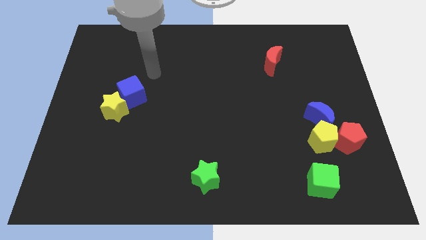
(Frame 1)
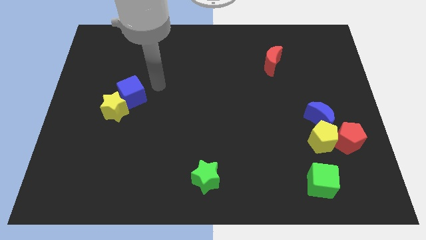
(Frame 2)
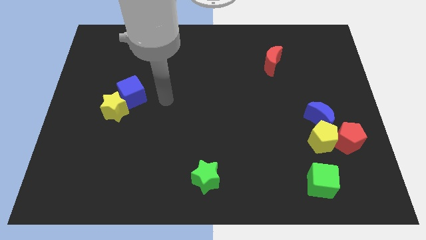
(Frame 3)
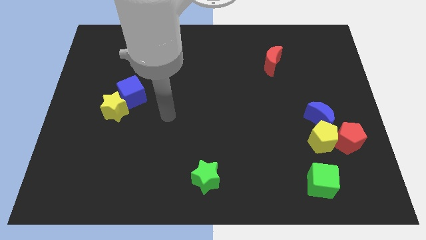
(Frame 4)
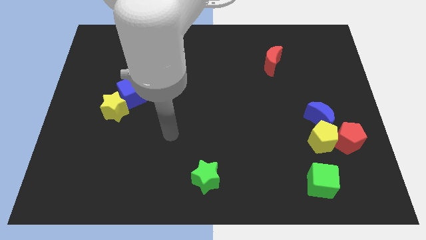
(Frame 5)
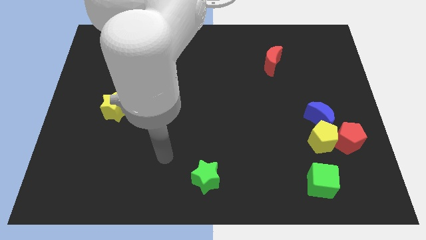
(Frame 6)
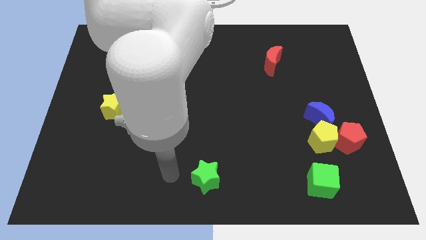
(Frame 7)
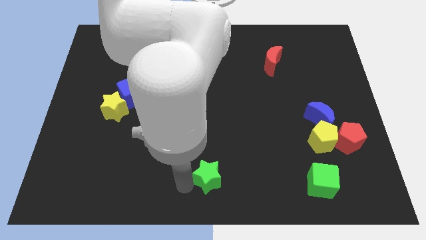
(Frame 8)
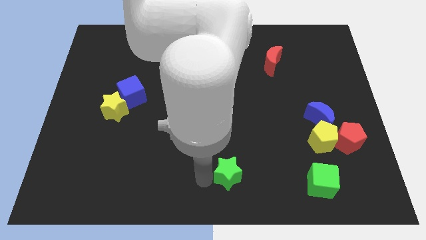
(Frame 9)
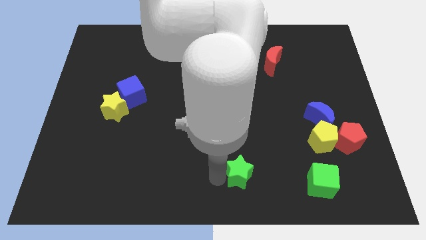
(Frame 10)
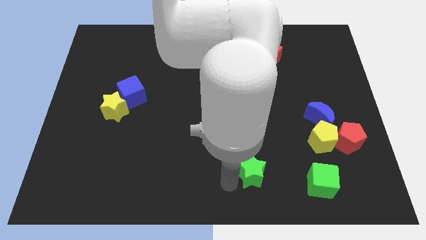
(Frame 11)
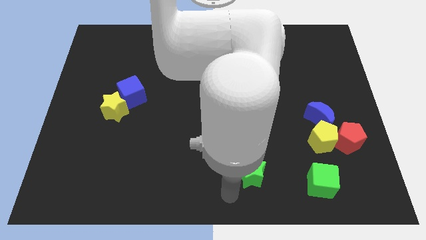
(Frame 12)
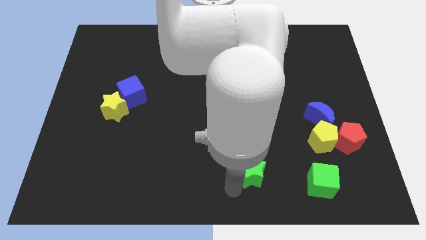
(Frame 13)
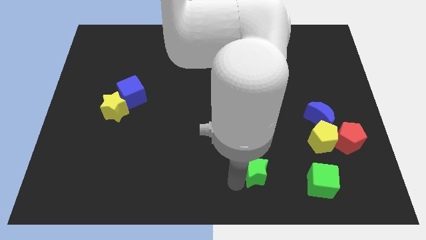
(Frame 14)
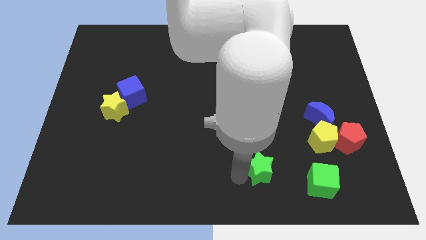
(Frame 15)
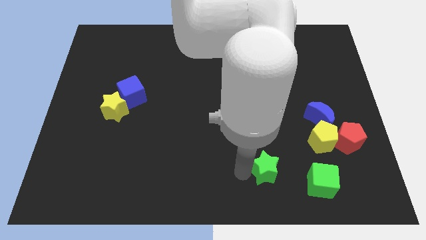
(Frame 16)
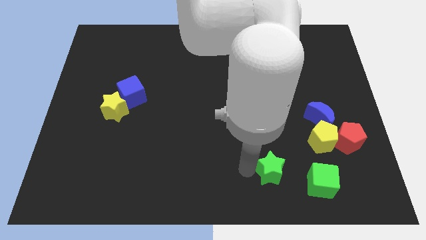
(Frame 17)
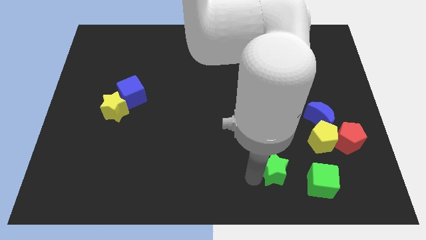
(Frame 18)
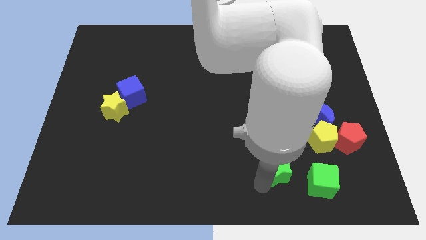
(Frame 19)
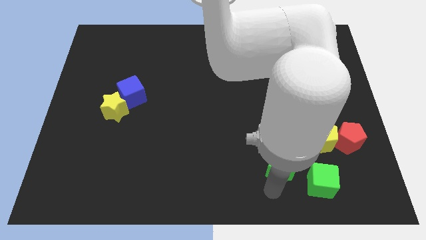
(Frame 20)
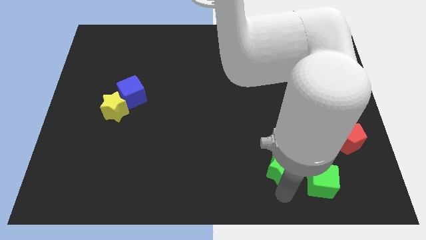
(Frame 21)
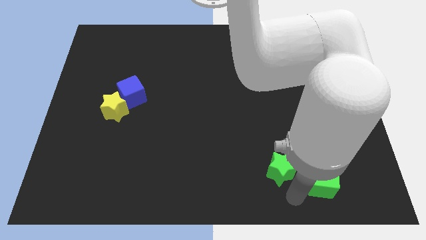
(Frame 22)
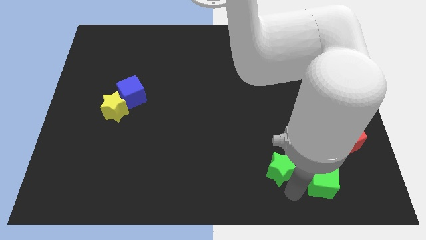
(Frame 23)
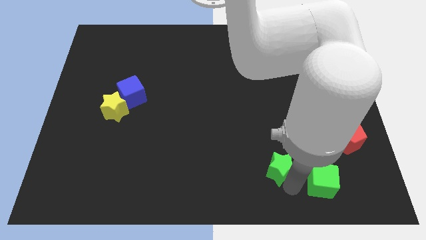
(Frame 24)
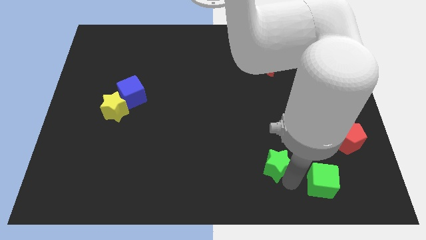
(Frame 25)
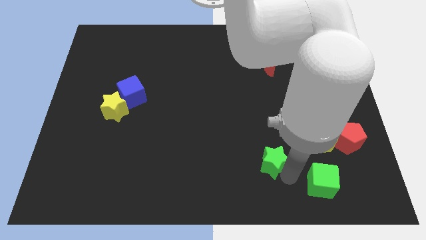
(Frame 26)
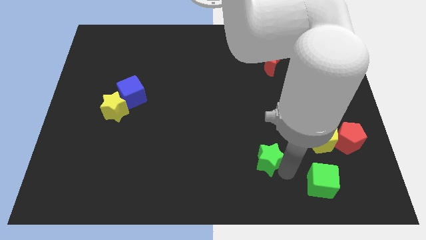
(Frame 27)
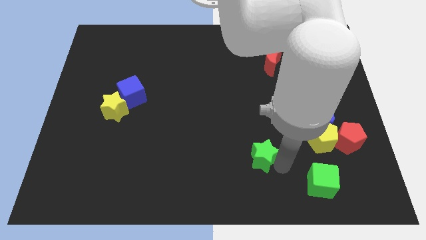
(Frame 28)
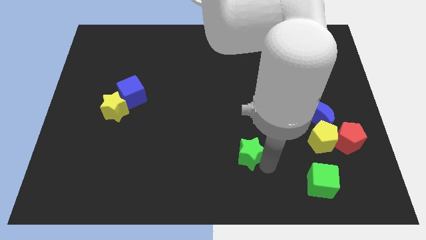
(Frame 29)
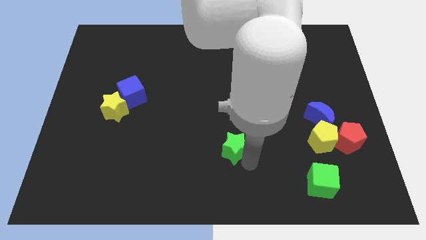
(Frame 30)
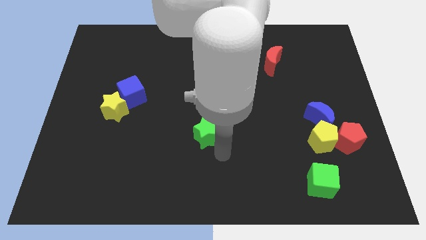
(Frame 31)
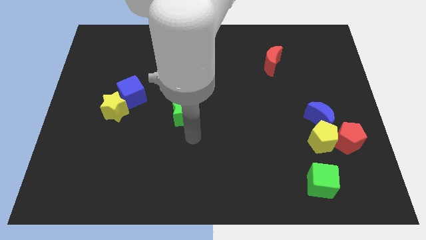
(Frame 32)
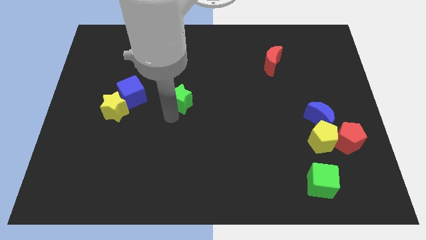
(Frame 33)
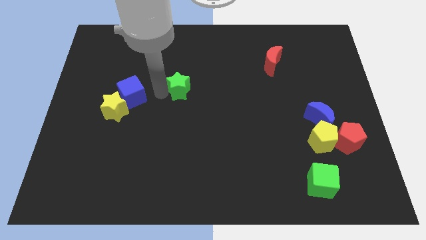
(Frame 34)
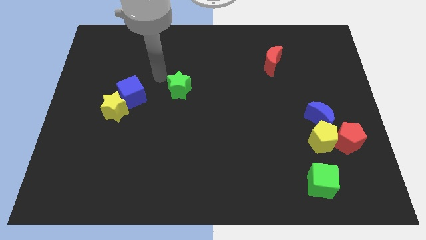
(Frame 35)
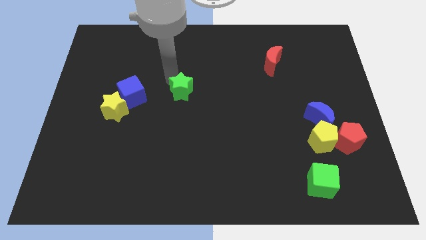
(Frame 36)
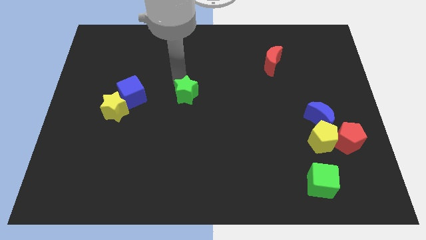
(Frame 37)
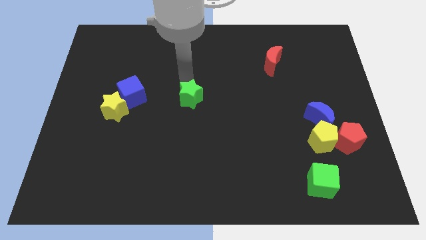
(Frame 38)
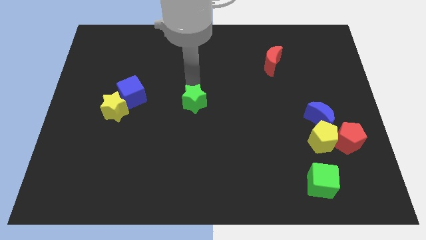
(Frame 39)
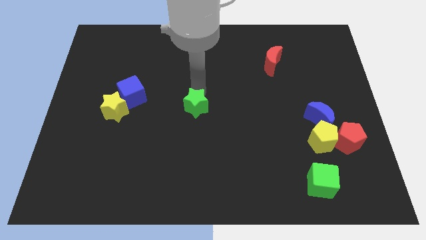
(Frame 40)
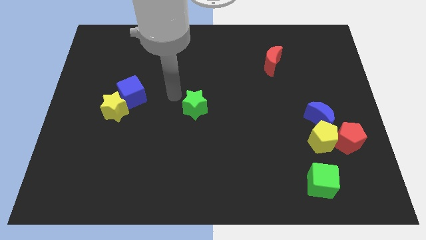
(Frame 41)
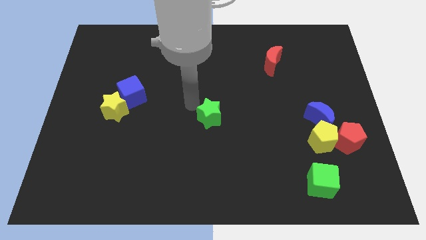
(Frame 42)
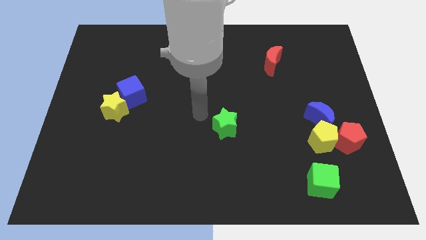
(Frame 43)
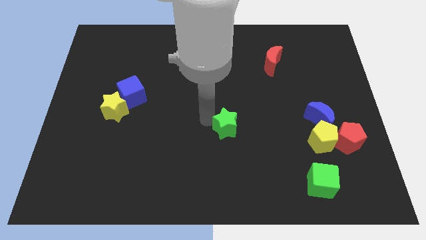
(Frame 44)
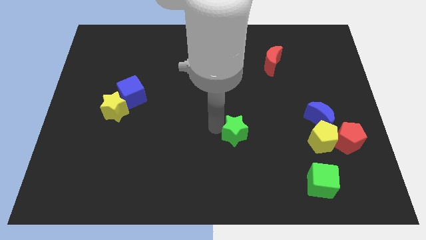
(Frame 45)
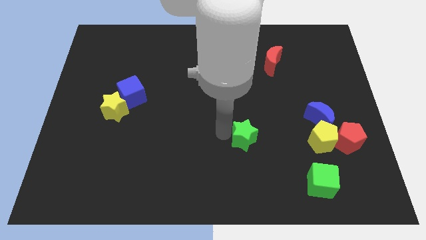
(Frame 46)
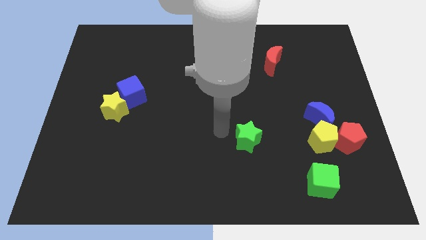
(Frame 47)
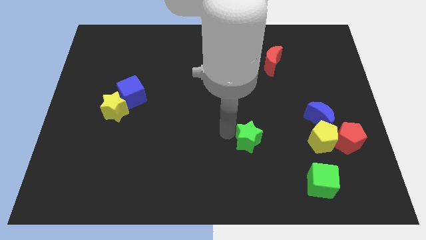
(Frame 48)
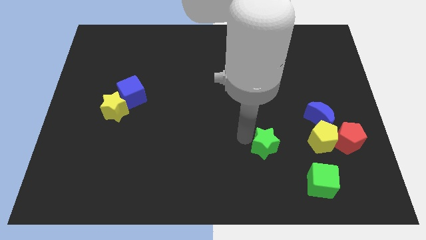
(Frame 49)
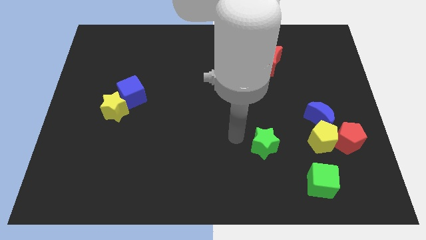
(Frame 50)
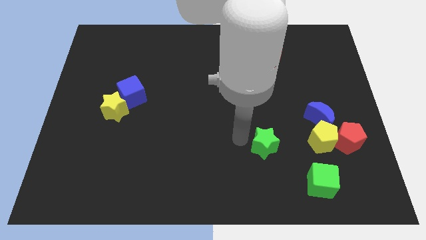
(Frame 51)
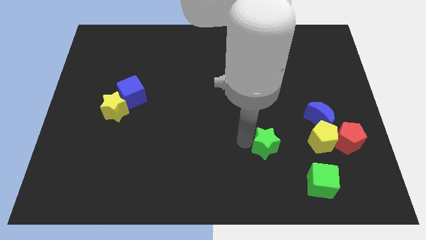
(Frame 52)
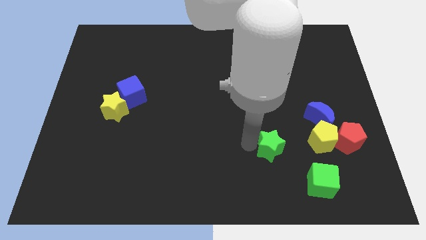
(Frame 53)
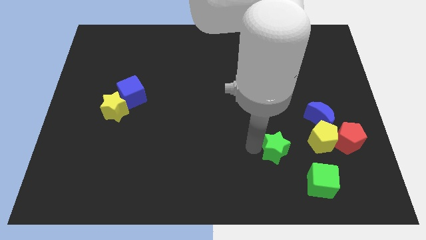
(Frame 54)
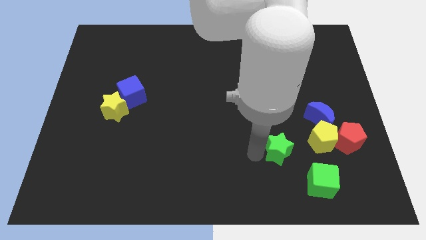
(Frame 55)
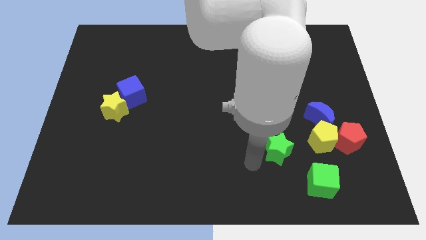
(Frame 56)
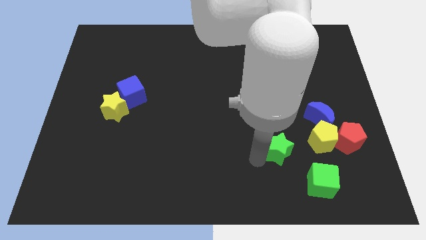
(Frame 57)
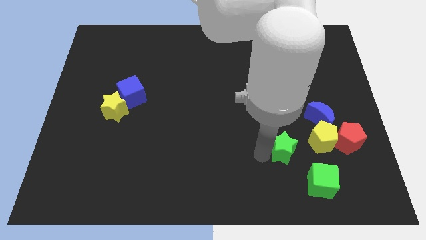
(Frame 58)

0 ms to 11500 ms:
put the green star to the bottom left of the blue moon

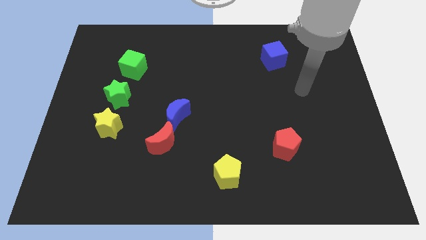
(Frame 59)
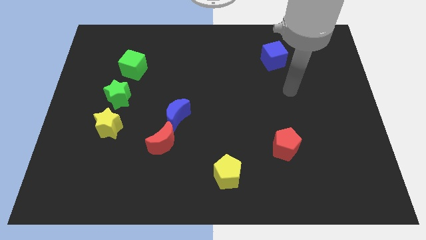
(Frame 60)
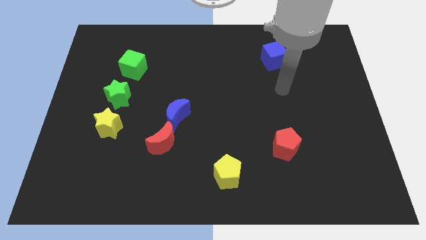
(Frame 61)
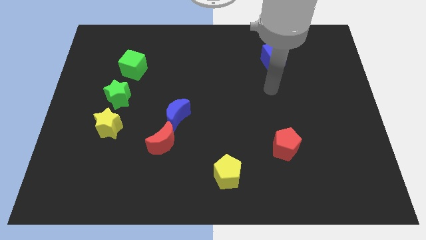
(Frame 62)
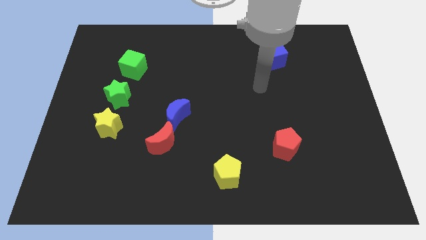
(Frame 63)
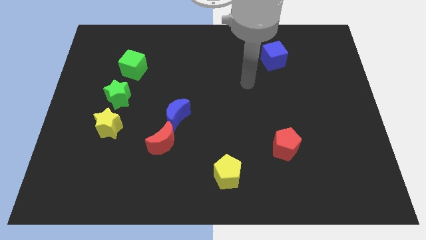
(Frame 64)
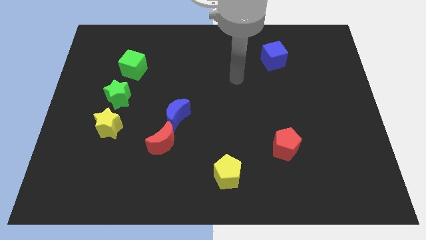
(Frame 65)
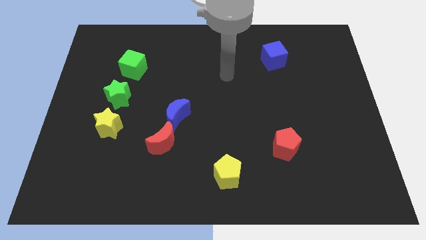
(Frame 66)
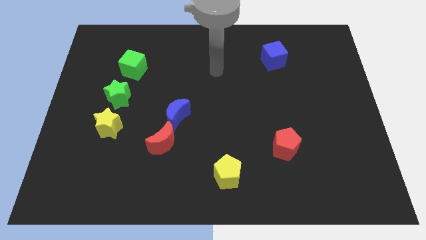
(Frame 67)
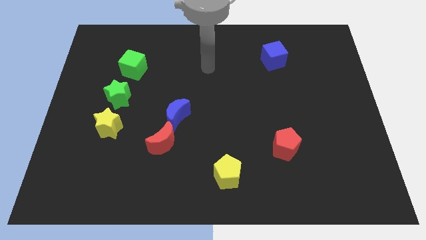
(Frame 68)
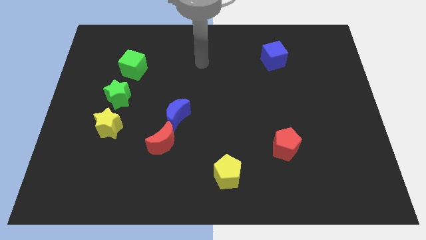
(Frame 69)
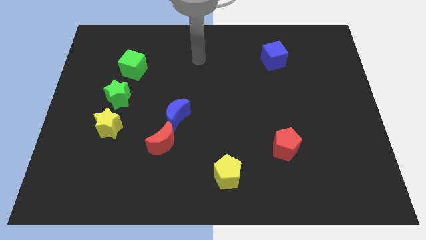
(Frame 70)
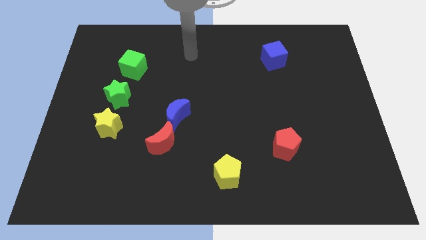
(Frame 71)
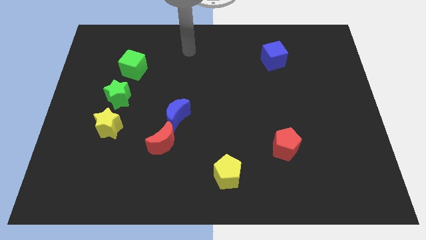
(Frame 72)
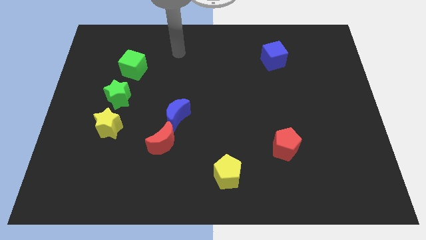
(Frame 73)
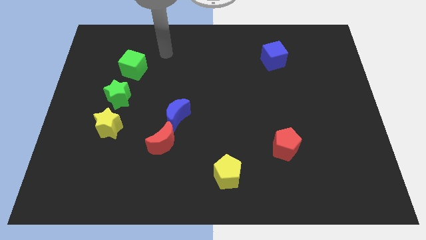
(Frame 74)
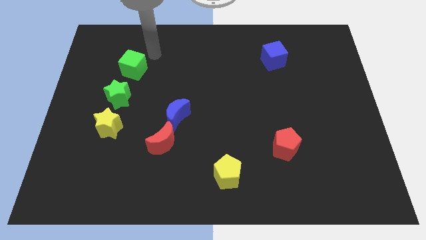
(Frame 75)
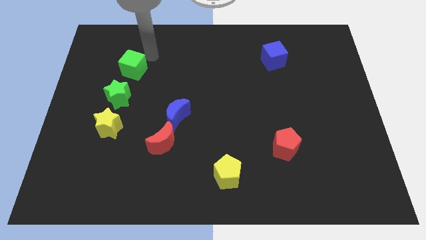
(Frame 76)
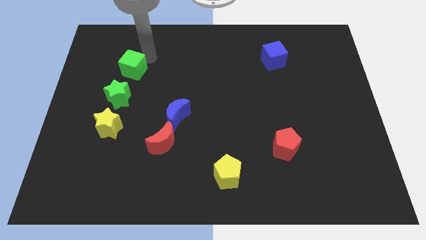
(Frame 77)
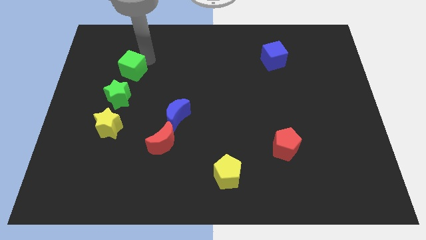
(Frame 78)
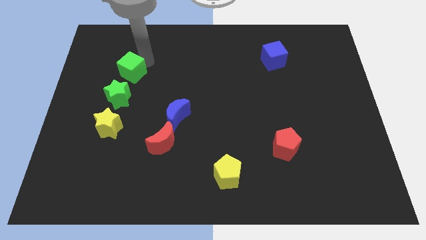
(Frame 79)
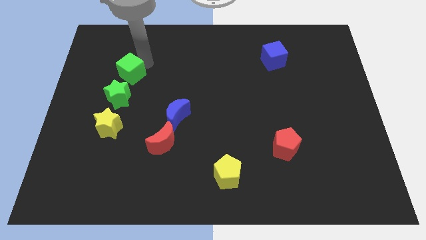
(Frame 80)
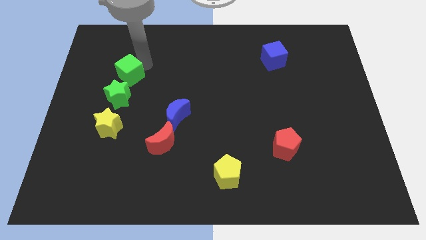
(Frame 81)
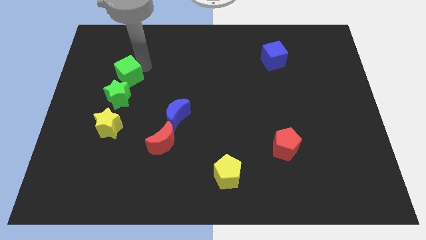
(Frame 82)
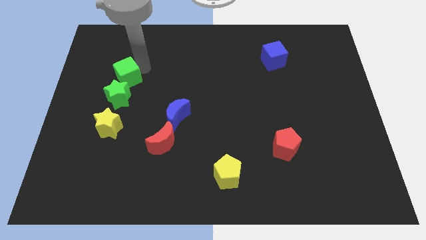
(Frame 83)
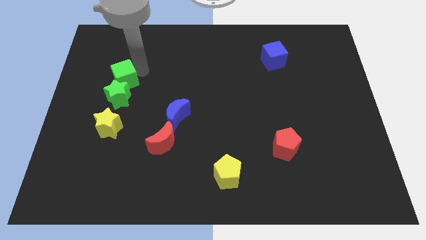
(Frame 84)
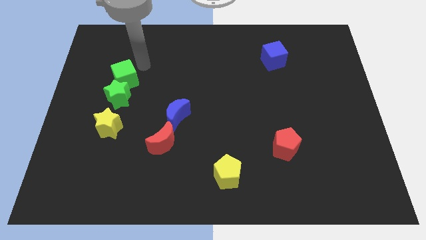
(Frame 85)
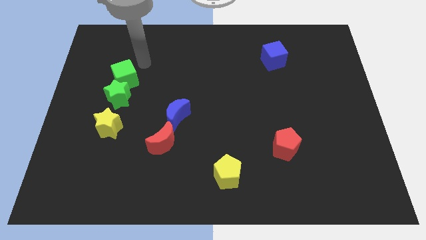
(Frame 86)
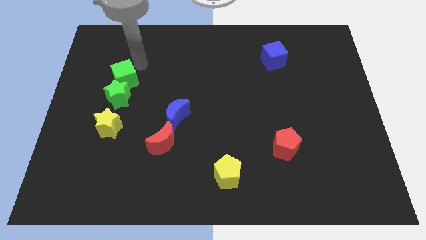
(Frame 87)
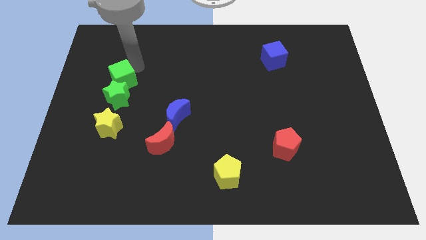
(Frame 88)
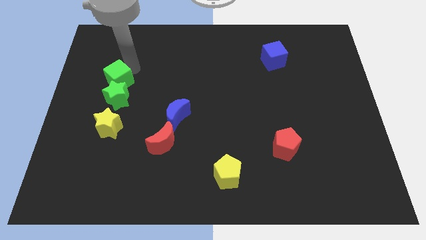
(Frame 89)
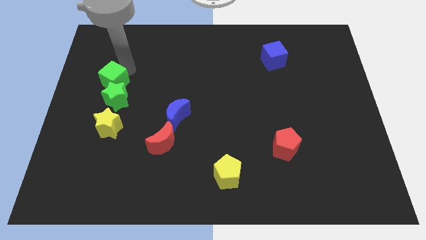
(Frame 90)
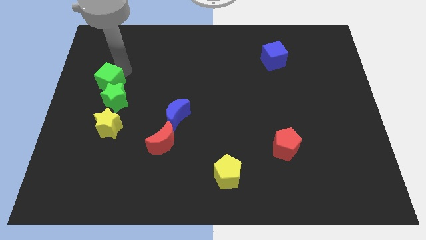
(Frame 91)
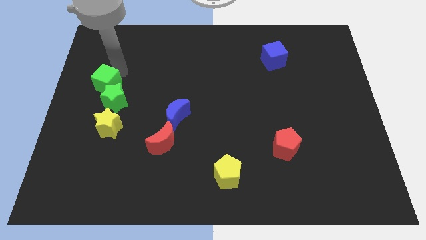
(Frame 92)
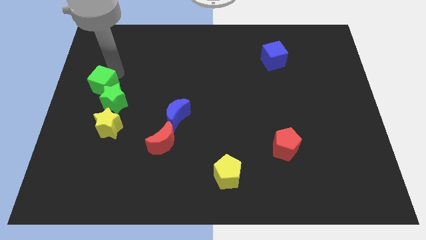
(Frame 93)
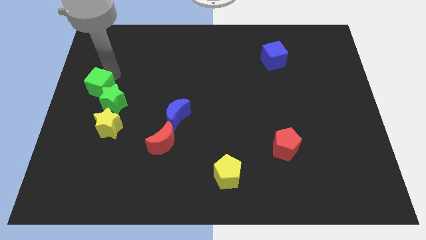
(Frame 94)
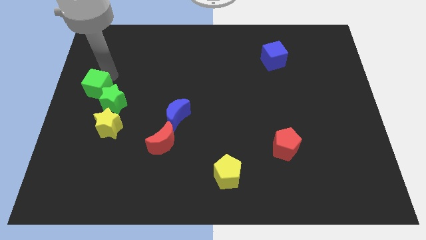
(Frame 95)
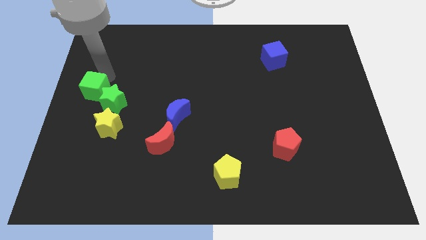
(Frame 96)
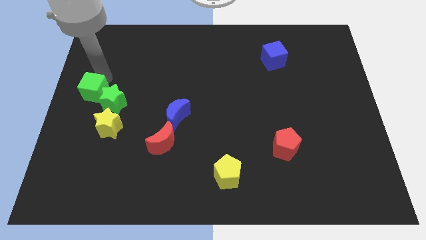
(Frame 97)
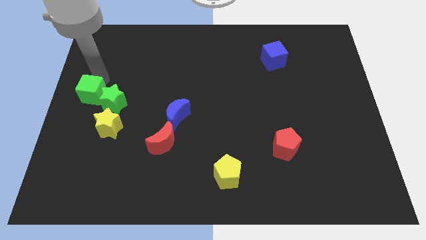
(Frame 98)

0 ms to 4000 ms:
move the green cube to the top left side of the yellow star
